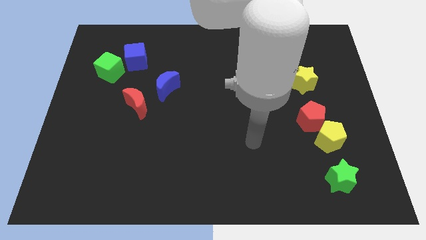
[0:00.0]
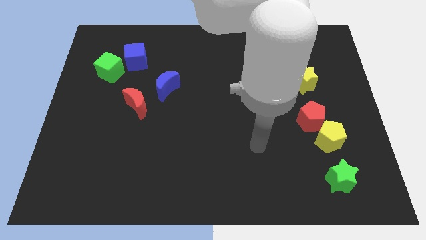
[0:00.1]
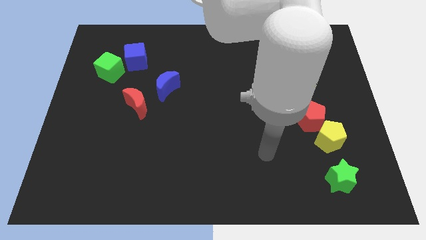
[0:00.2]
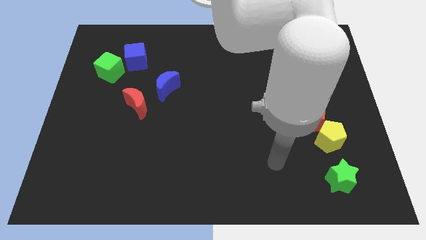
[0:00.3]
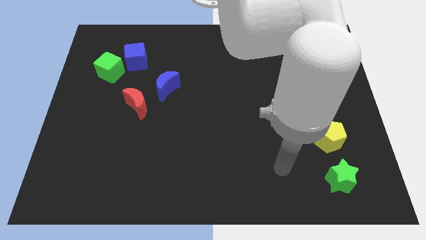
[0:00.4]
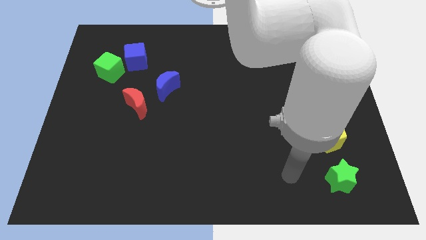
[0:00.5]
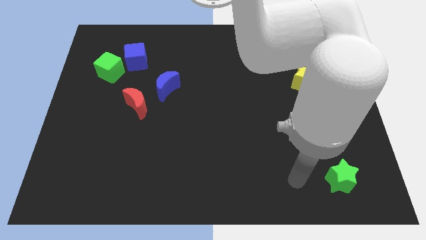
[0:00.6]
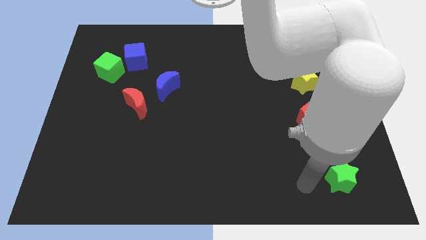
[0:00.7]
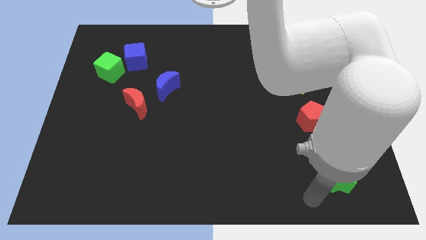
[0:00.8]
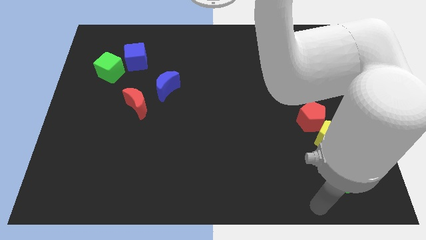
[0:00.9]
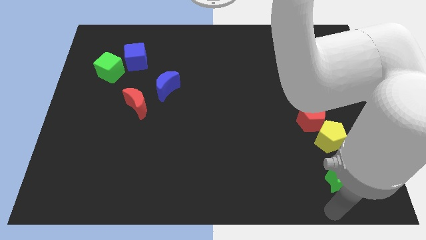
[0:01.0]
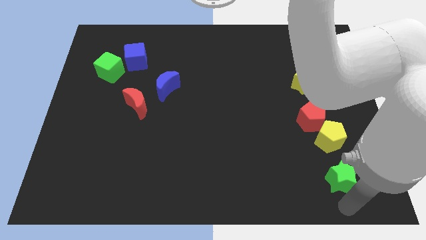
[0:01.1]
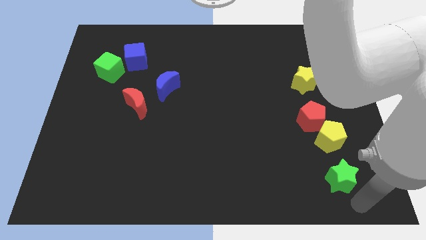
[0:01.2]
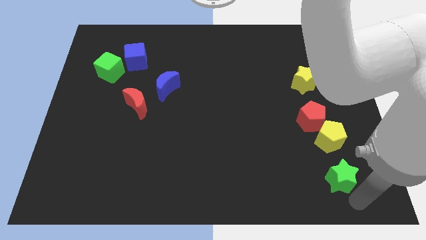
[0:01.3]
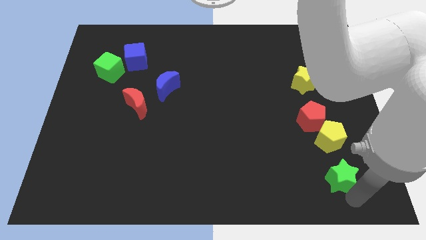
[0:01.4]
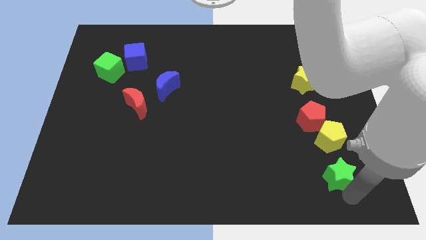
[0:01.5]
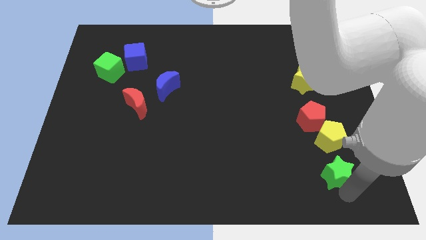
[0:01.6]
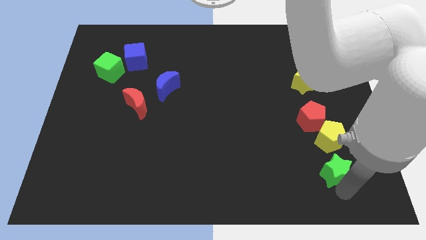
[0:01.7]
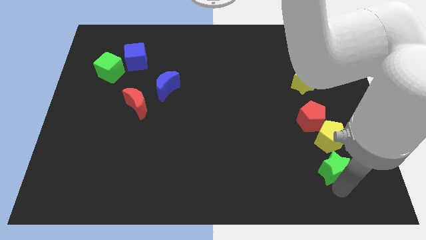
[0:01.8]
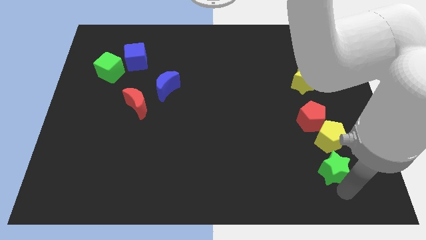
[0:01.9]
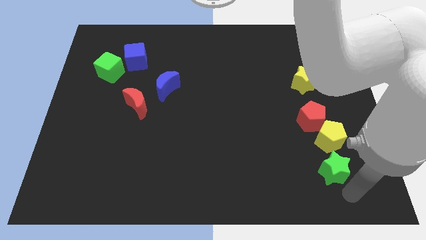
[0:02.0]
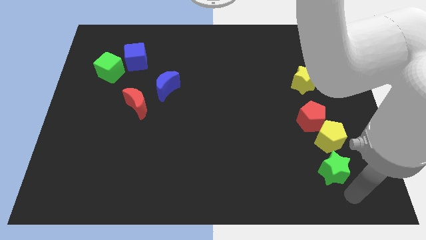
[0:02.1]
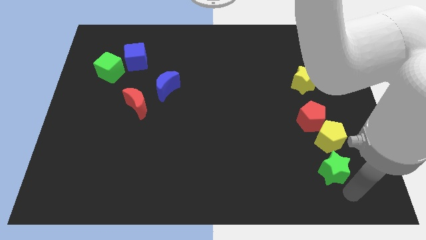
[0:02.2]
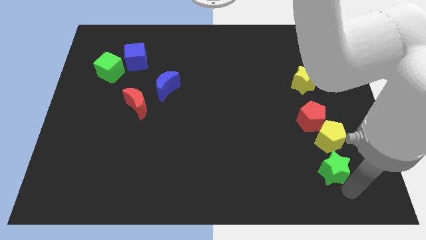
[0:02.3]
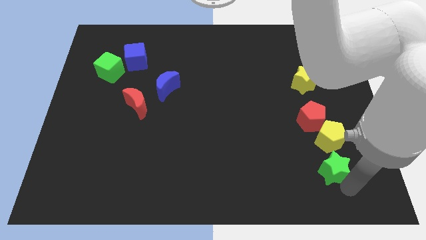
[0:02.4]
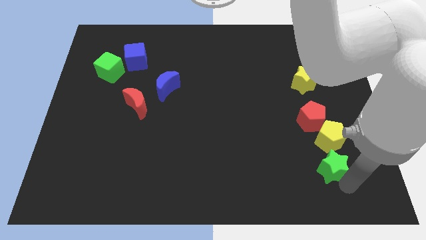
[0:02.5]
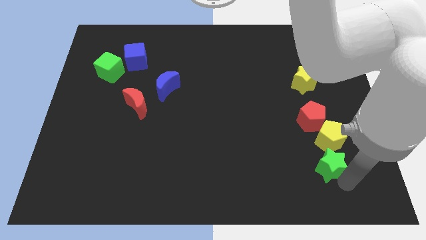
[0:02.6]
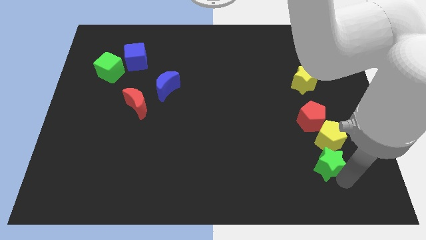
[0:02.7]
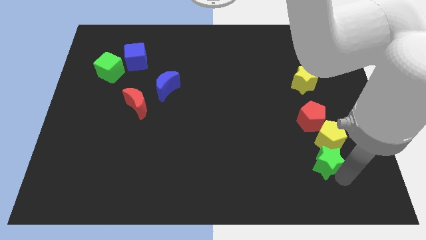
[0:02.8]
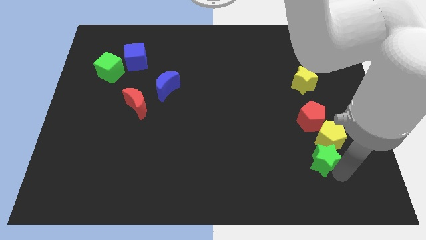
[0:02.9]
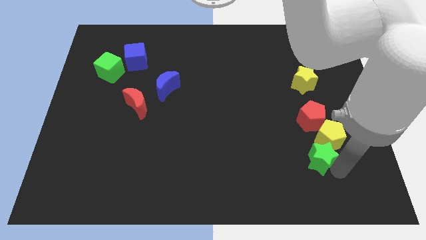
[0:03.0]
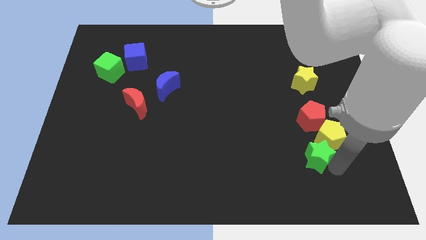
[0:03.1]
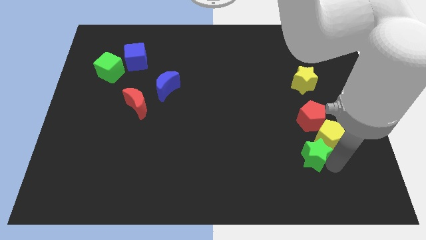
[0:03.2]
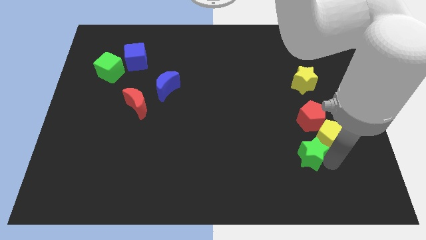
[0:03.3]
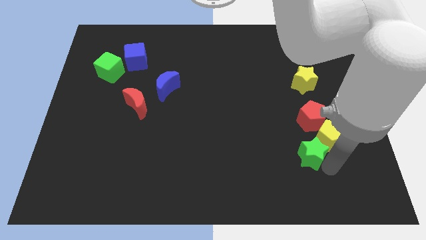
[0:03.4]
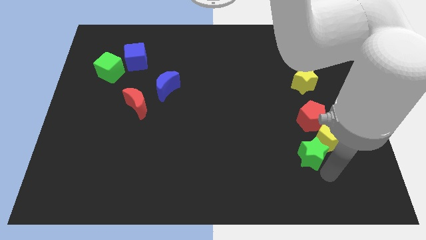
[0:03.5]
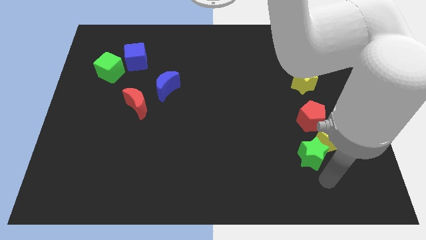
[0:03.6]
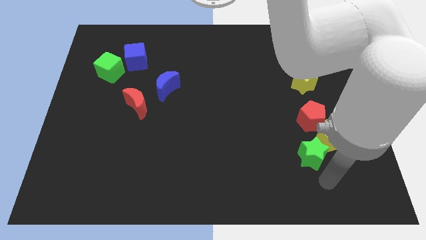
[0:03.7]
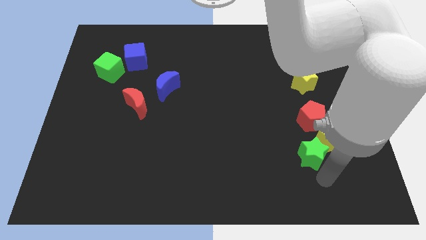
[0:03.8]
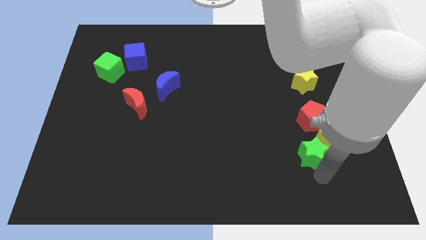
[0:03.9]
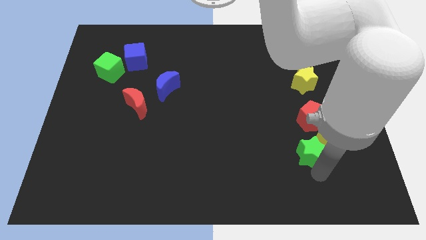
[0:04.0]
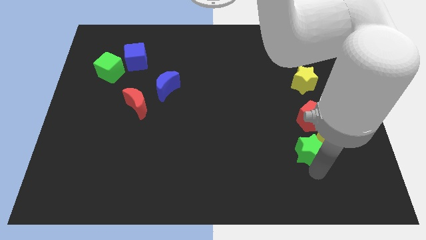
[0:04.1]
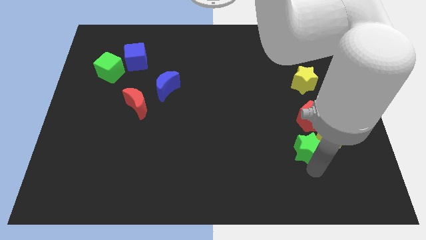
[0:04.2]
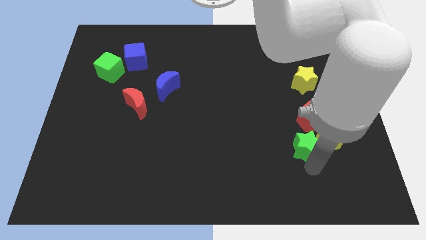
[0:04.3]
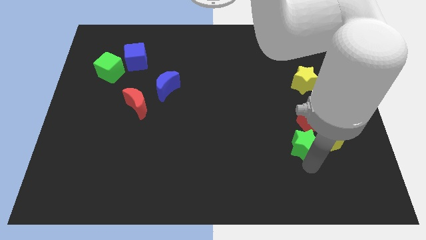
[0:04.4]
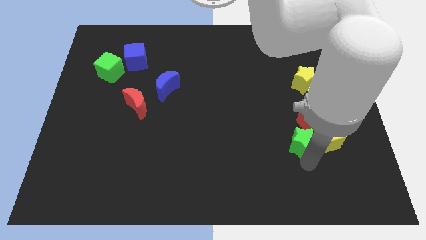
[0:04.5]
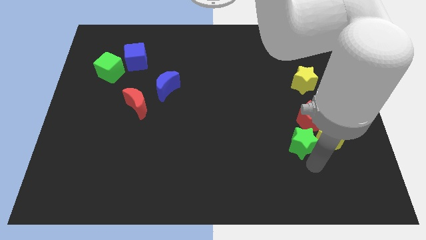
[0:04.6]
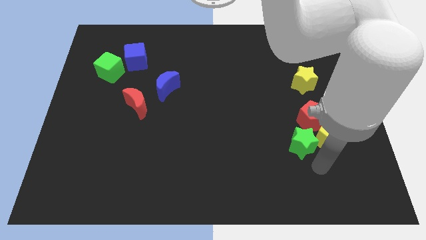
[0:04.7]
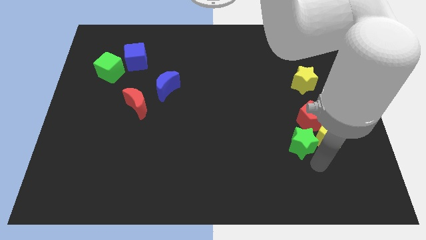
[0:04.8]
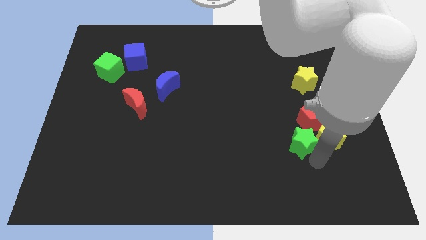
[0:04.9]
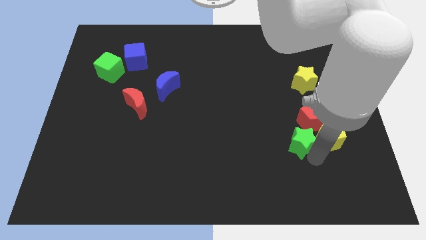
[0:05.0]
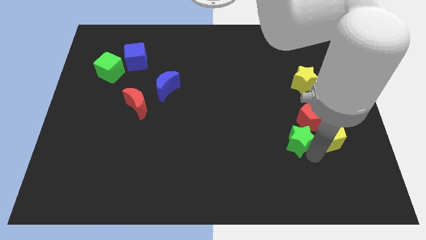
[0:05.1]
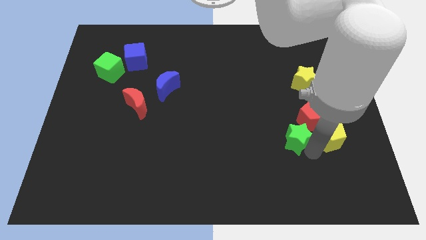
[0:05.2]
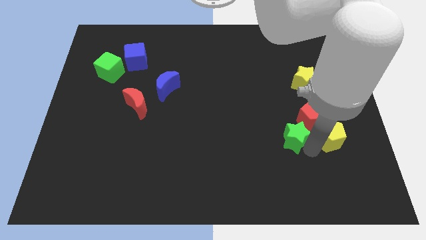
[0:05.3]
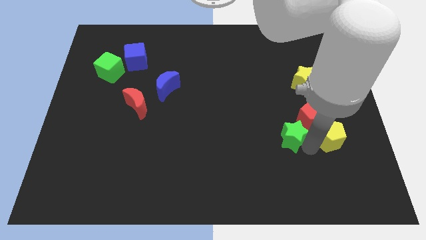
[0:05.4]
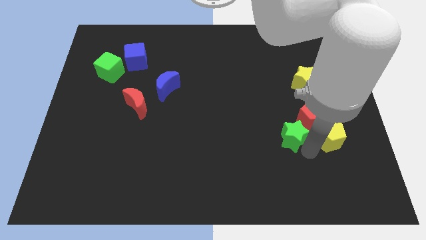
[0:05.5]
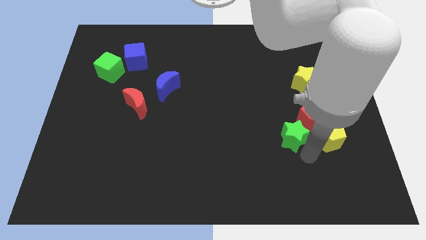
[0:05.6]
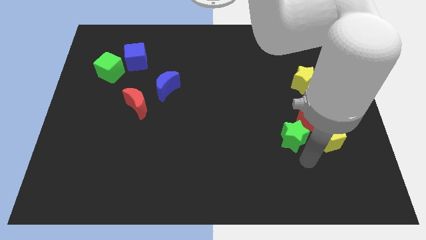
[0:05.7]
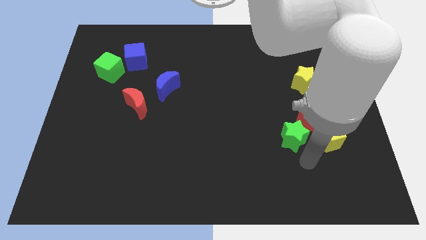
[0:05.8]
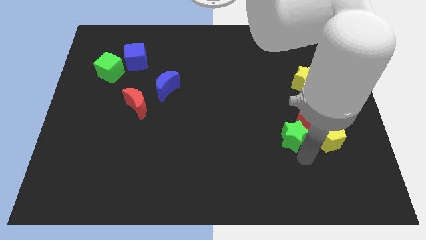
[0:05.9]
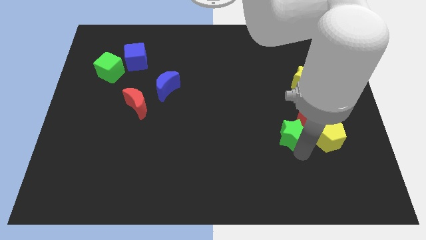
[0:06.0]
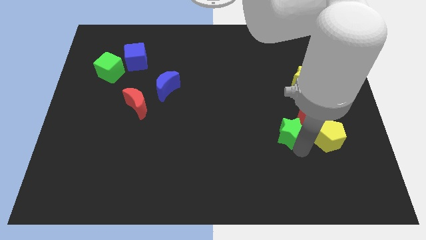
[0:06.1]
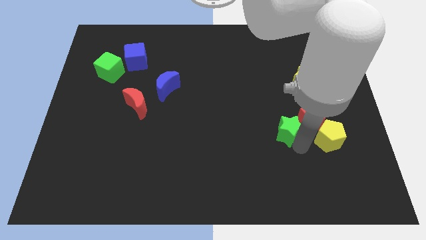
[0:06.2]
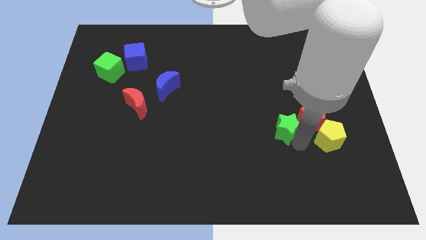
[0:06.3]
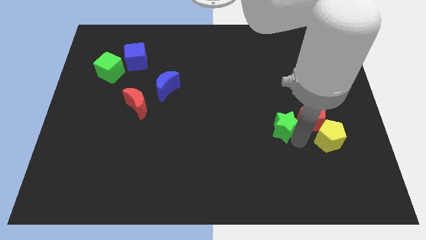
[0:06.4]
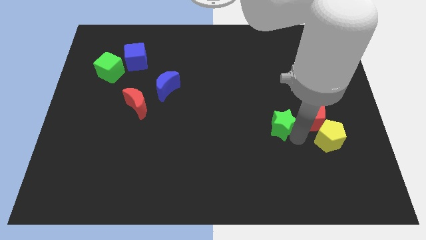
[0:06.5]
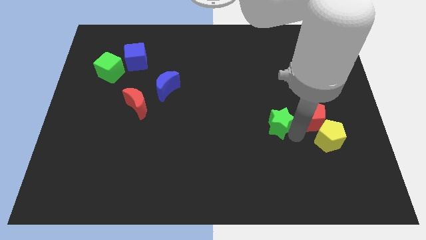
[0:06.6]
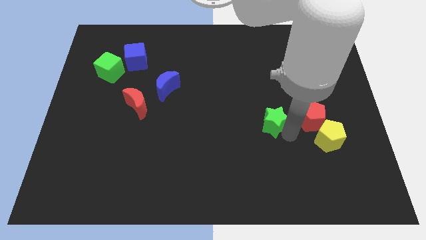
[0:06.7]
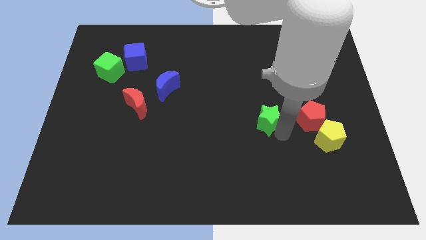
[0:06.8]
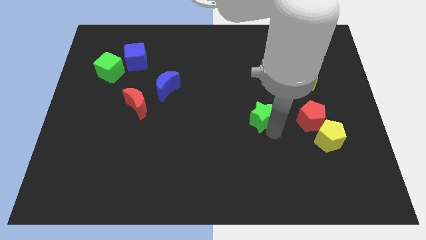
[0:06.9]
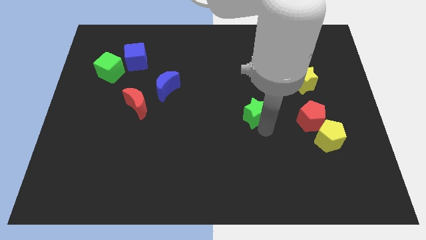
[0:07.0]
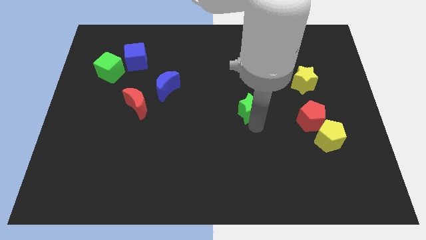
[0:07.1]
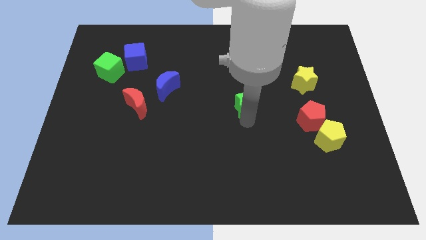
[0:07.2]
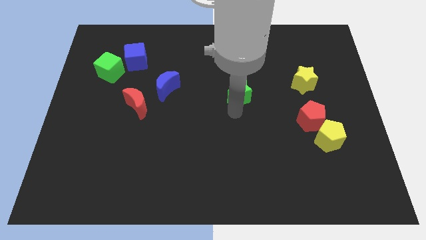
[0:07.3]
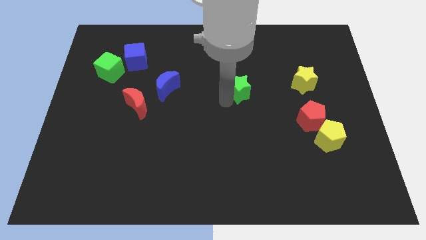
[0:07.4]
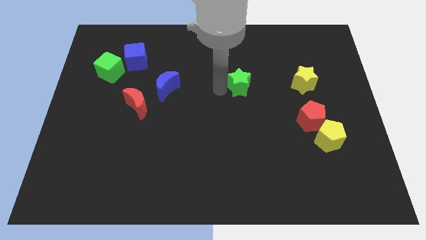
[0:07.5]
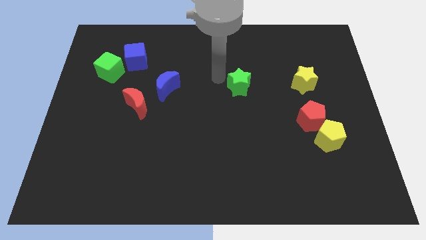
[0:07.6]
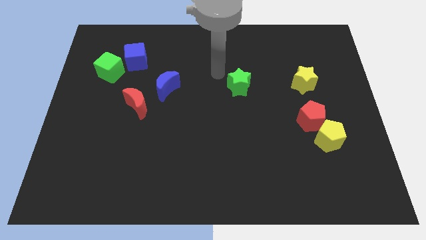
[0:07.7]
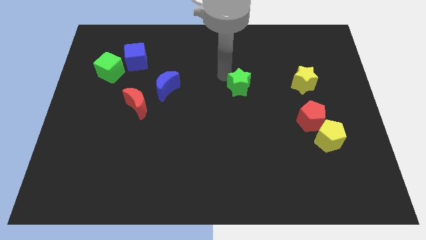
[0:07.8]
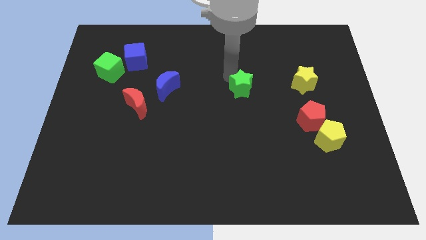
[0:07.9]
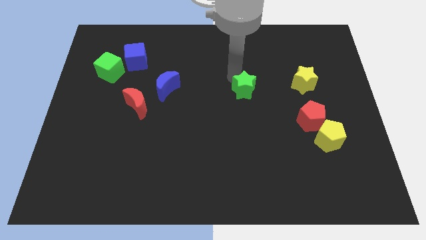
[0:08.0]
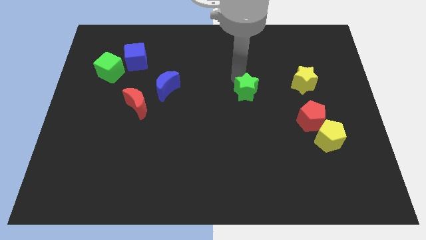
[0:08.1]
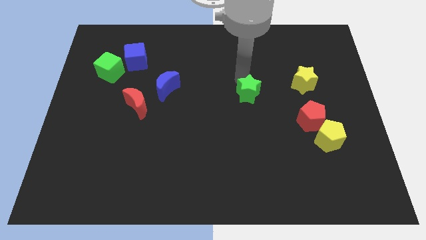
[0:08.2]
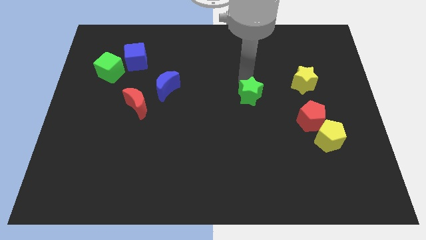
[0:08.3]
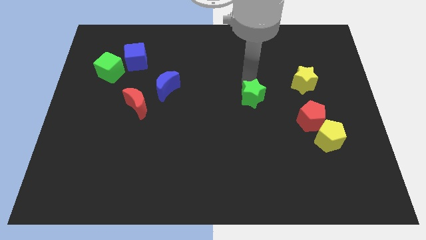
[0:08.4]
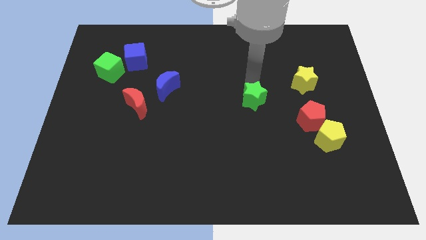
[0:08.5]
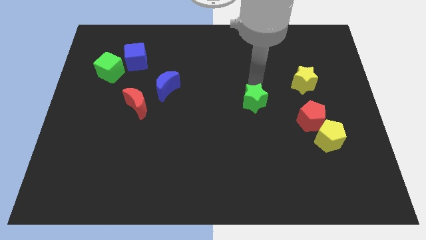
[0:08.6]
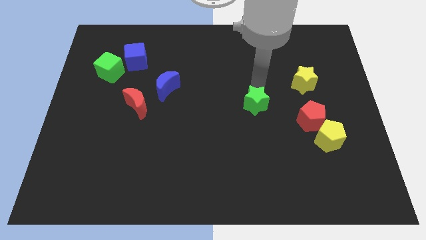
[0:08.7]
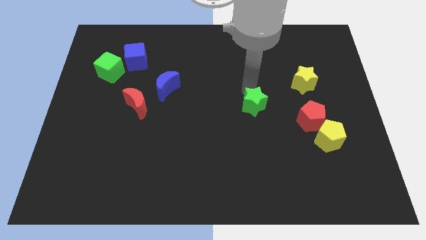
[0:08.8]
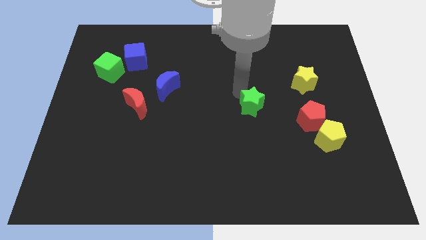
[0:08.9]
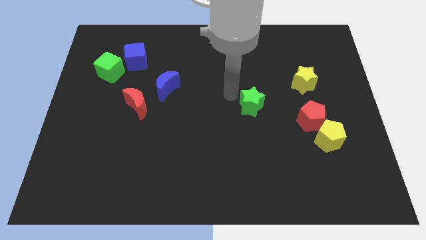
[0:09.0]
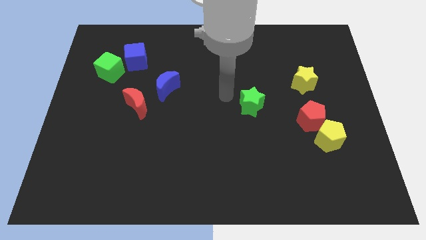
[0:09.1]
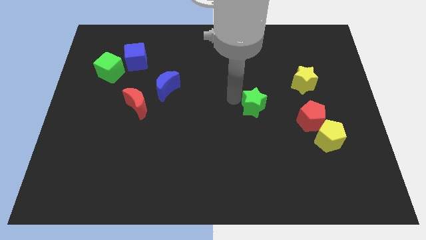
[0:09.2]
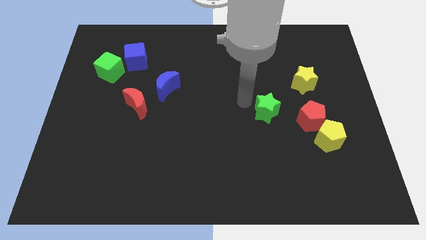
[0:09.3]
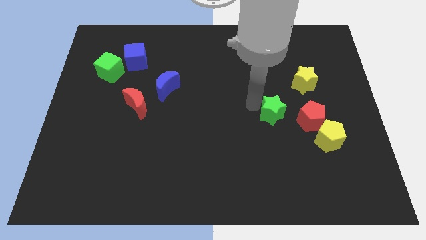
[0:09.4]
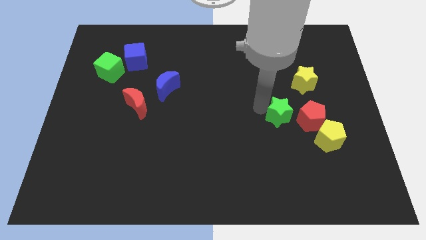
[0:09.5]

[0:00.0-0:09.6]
put the green star to the top left of the yellow pentagon
